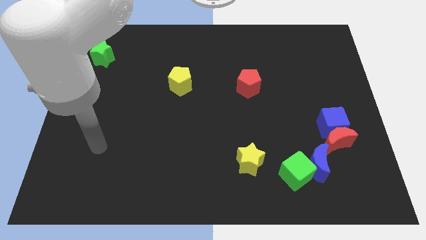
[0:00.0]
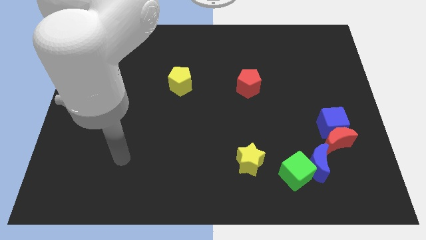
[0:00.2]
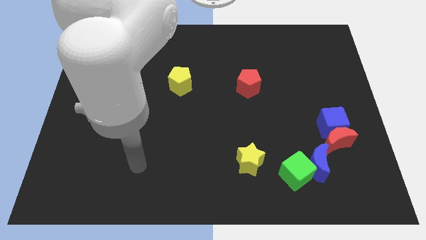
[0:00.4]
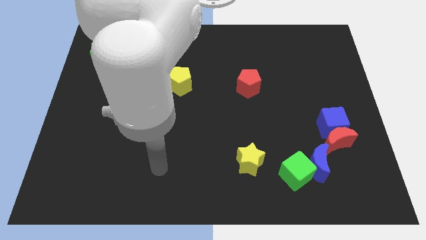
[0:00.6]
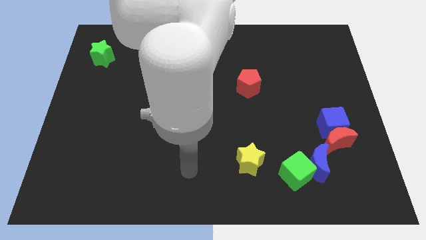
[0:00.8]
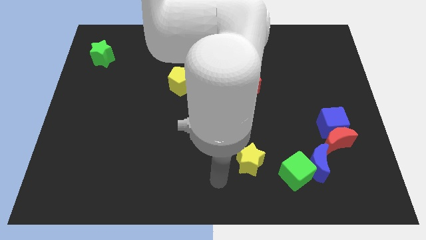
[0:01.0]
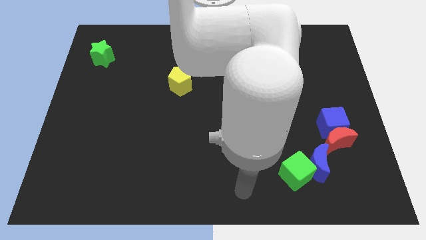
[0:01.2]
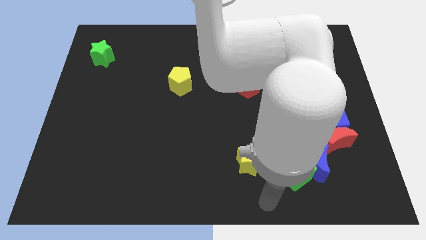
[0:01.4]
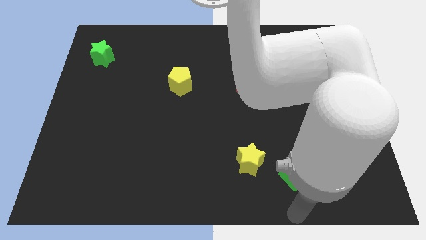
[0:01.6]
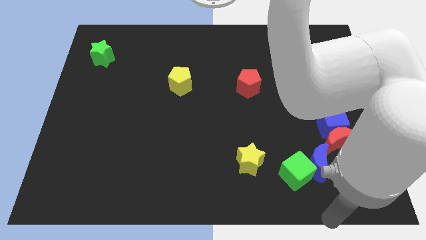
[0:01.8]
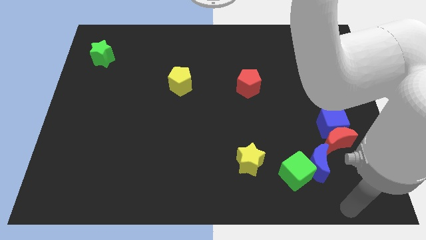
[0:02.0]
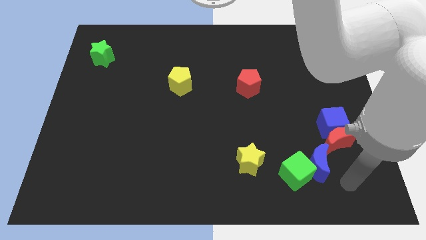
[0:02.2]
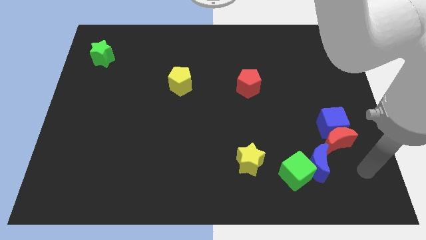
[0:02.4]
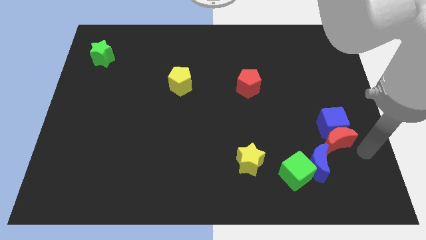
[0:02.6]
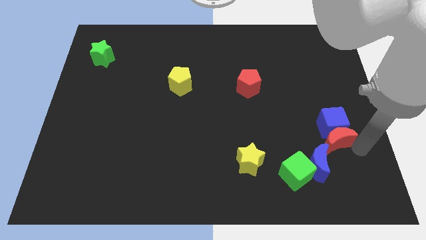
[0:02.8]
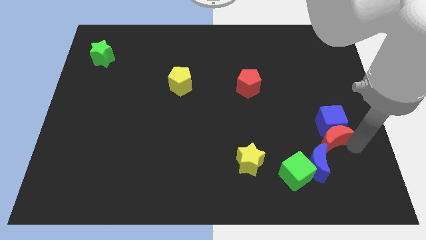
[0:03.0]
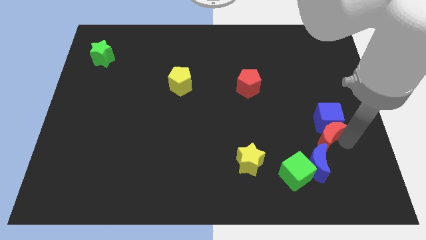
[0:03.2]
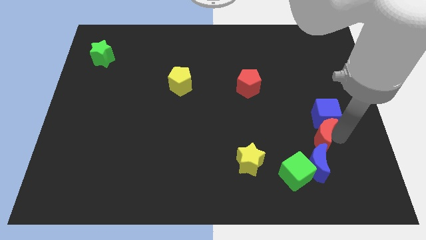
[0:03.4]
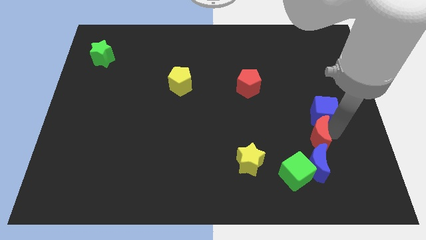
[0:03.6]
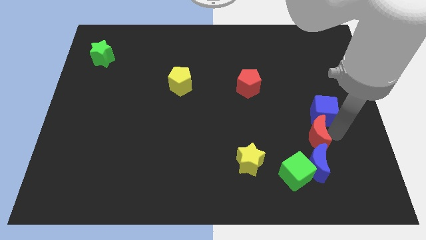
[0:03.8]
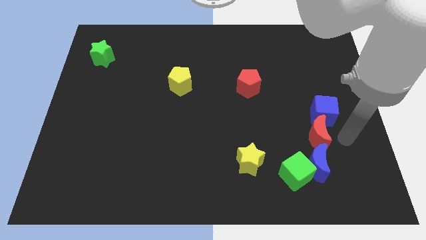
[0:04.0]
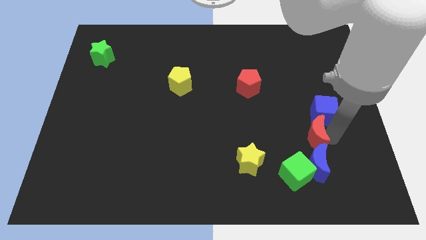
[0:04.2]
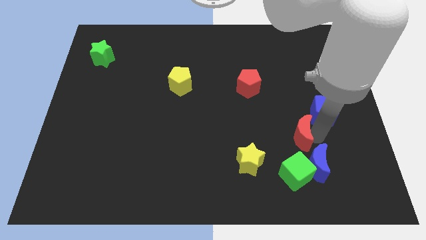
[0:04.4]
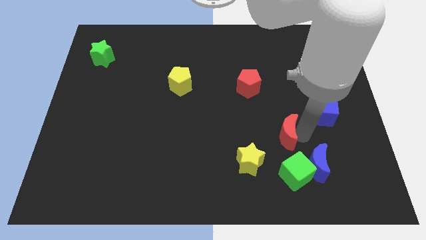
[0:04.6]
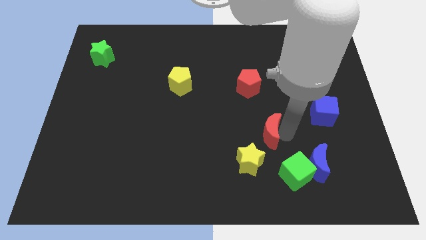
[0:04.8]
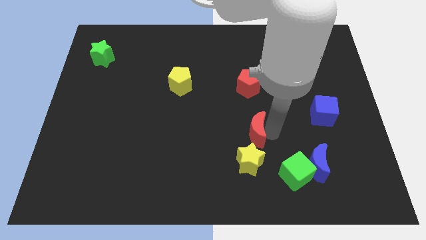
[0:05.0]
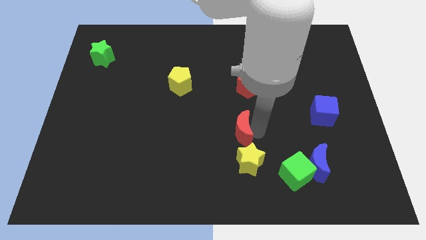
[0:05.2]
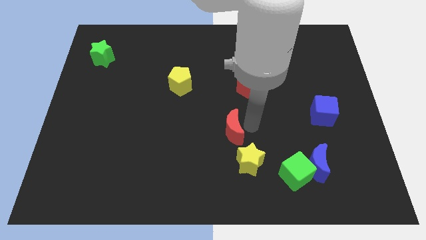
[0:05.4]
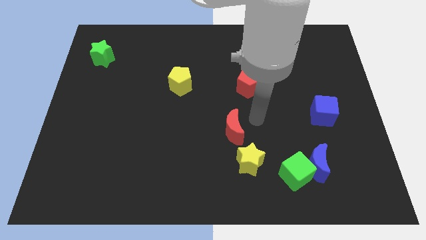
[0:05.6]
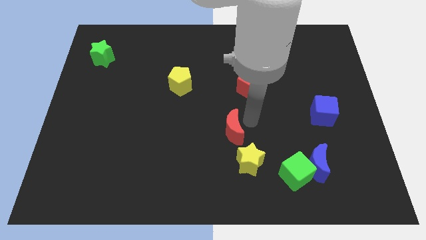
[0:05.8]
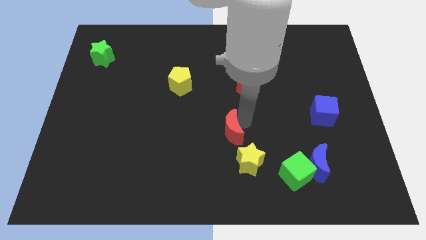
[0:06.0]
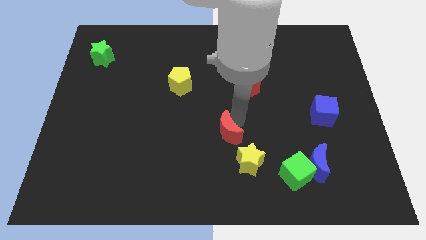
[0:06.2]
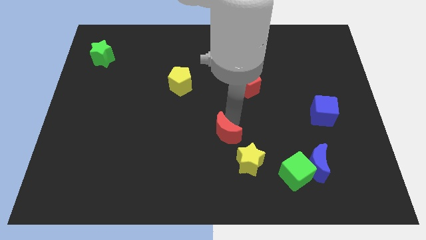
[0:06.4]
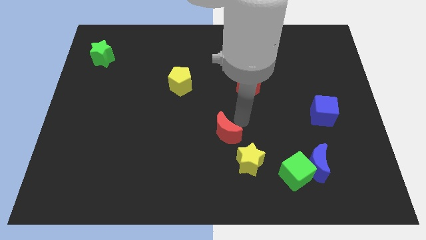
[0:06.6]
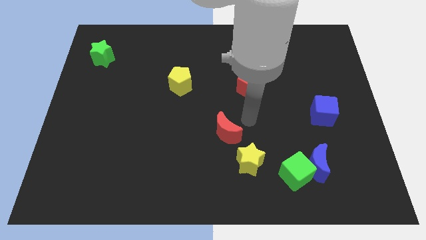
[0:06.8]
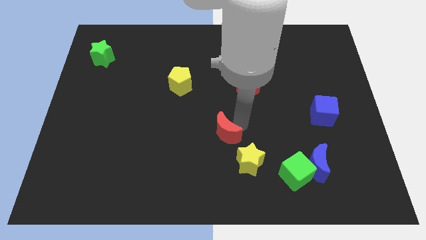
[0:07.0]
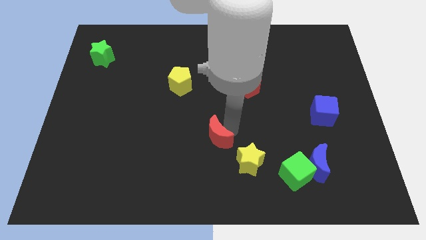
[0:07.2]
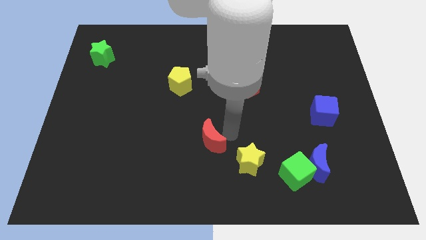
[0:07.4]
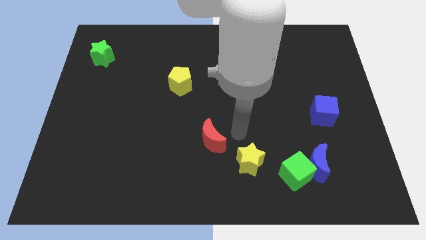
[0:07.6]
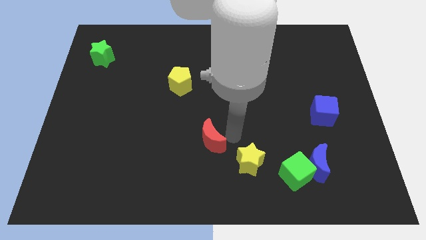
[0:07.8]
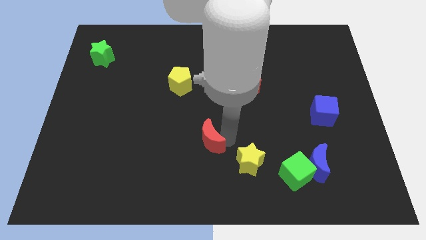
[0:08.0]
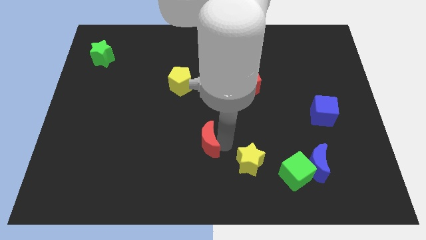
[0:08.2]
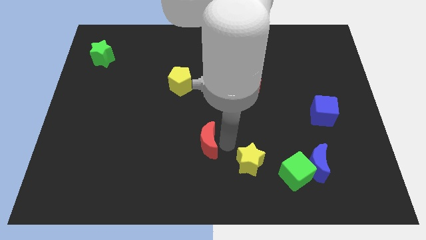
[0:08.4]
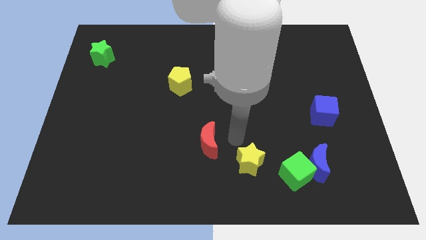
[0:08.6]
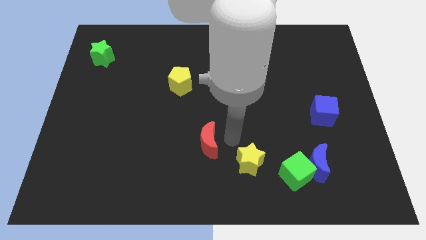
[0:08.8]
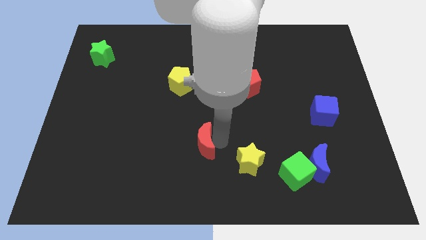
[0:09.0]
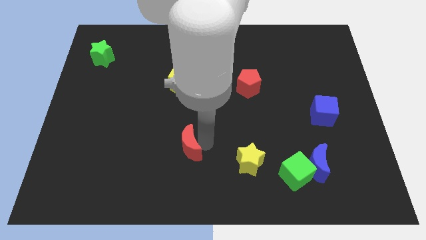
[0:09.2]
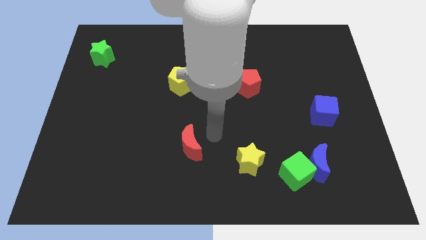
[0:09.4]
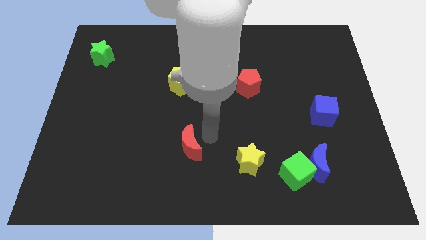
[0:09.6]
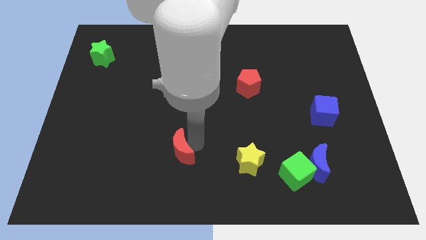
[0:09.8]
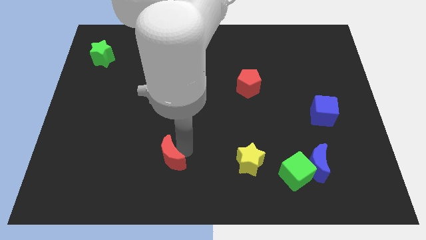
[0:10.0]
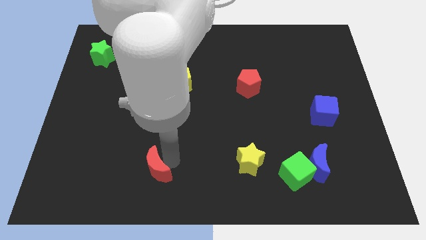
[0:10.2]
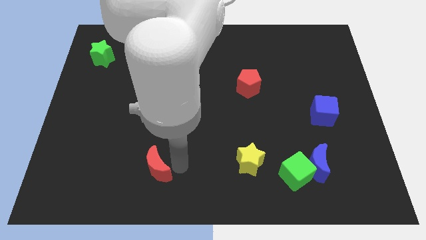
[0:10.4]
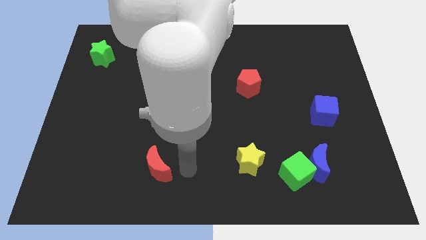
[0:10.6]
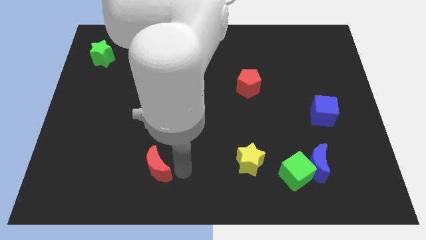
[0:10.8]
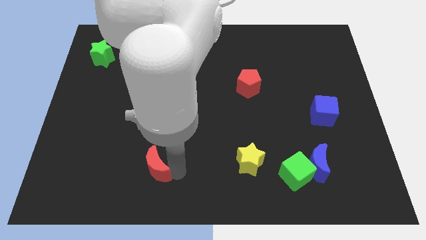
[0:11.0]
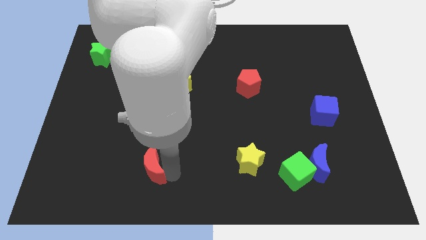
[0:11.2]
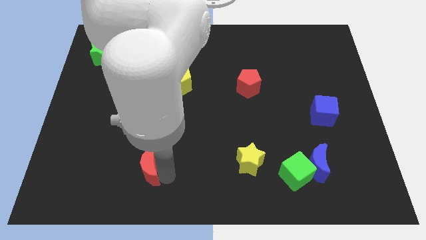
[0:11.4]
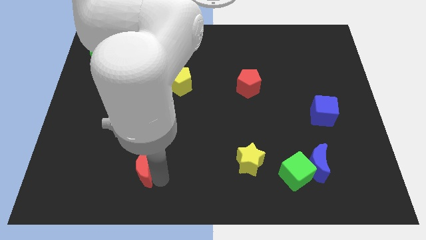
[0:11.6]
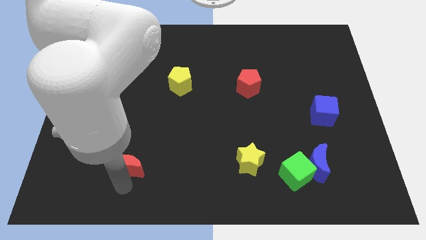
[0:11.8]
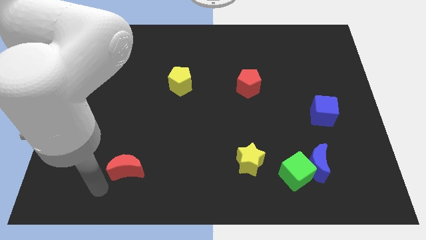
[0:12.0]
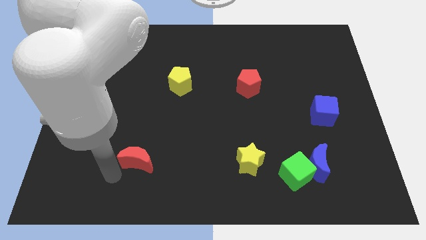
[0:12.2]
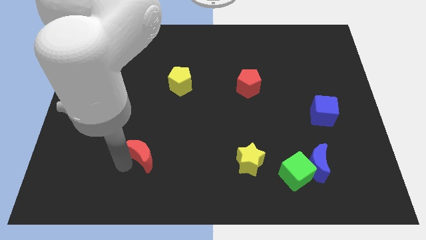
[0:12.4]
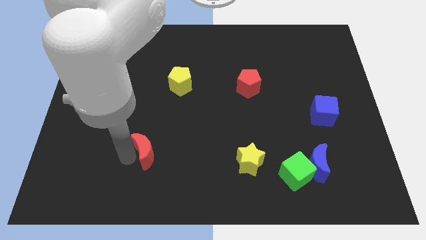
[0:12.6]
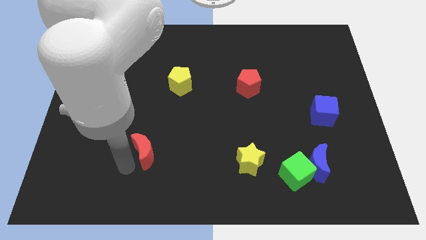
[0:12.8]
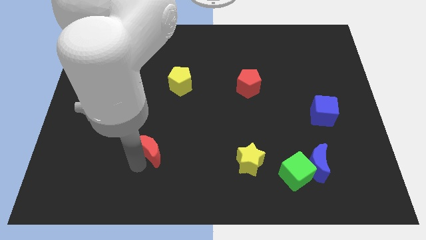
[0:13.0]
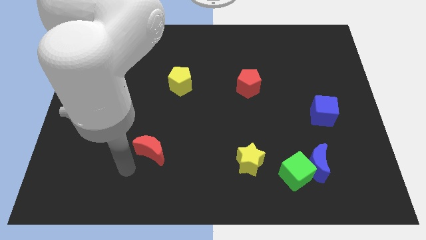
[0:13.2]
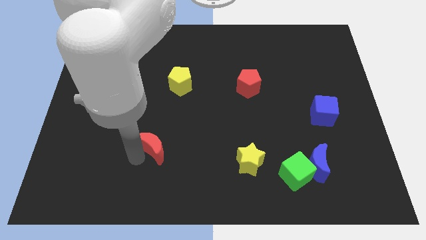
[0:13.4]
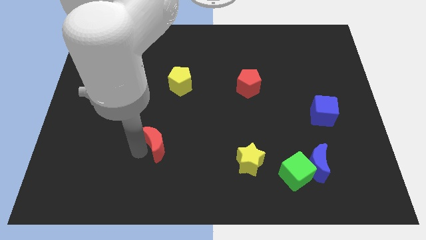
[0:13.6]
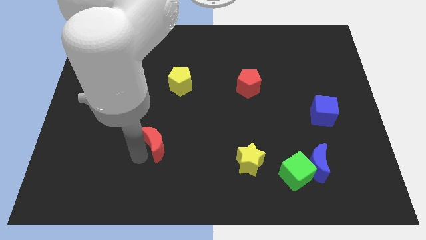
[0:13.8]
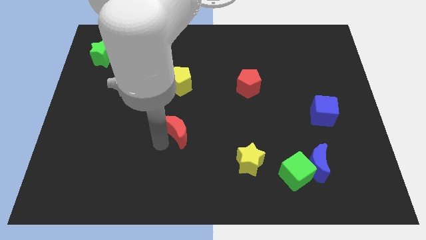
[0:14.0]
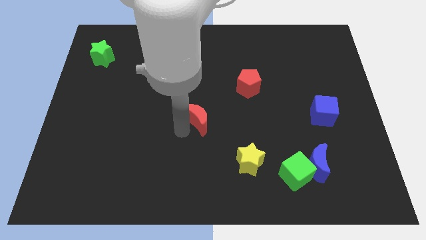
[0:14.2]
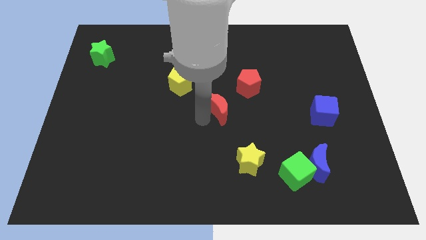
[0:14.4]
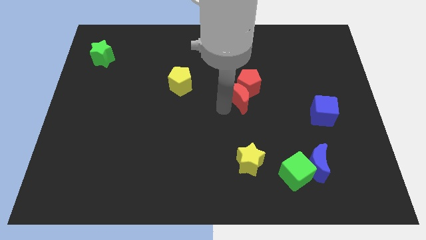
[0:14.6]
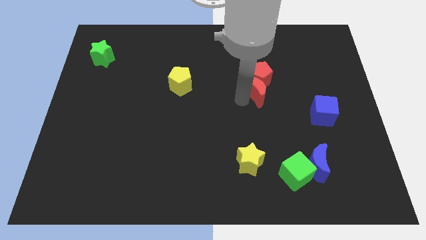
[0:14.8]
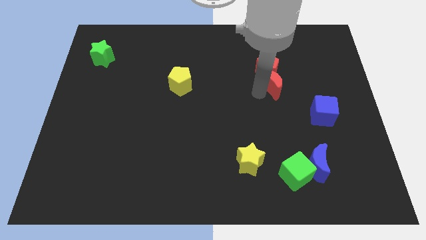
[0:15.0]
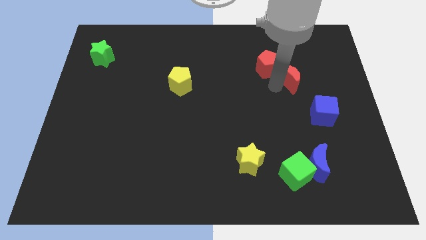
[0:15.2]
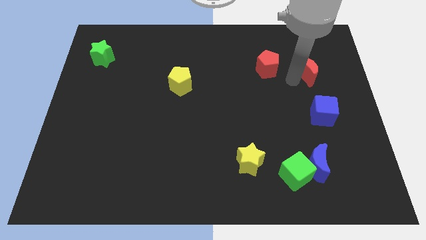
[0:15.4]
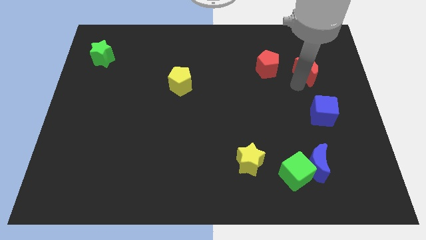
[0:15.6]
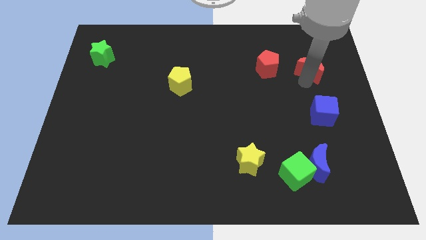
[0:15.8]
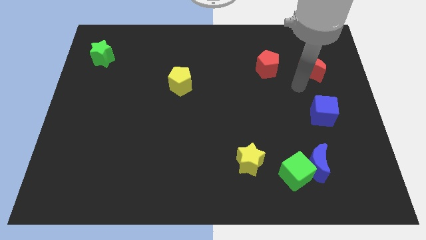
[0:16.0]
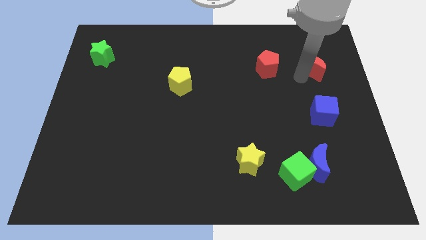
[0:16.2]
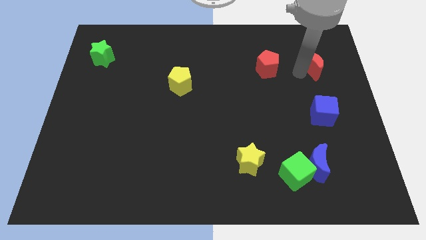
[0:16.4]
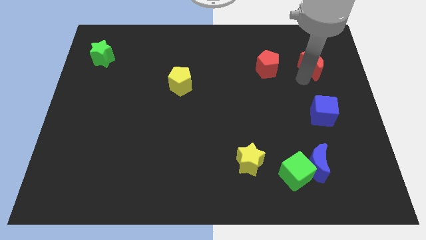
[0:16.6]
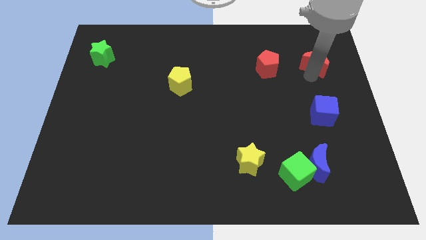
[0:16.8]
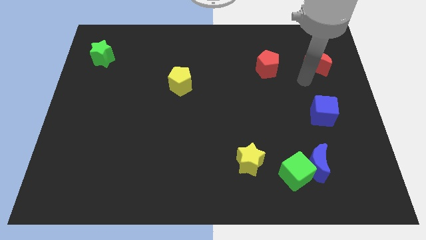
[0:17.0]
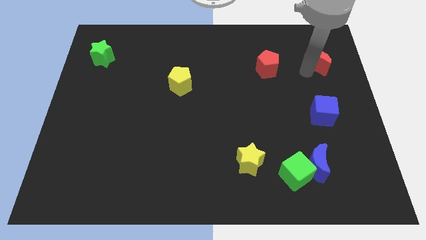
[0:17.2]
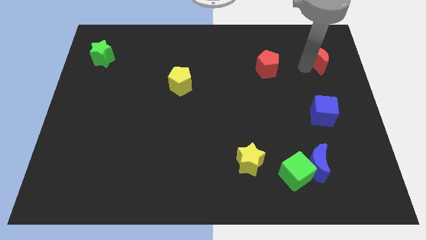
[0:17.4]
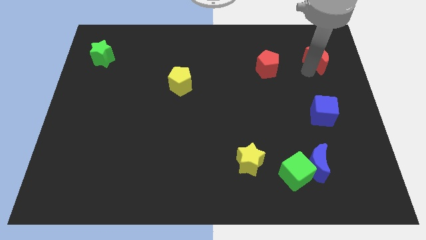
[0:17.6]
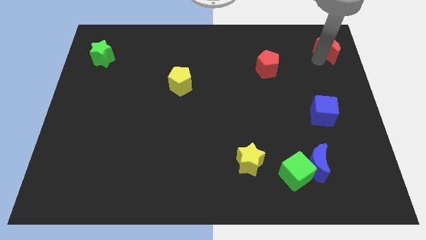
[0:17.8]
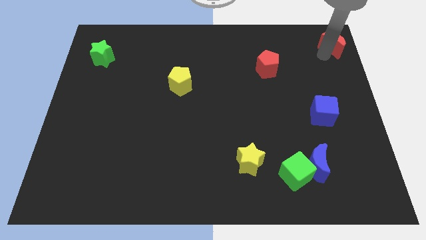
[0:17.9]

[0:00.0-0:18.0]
put the red moon to the top right
